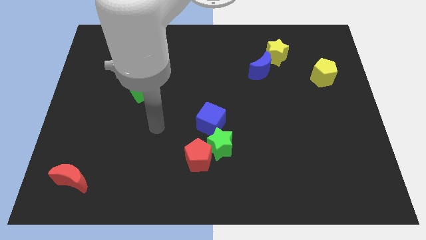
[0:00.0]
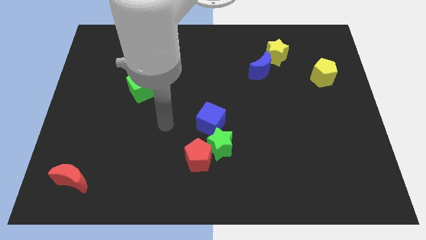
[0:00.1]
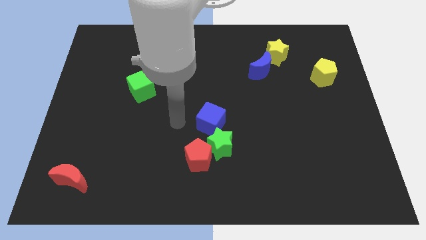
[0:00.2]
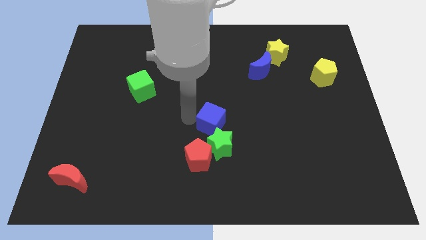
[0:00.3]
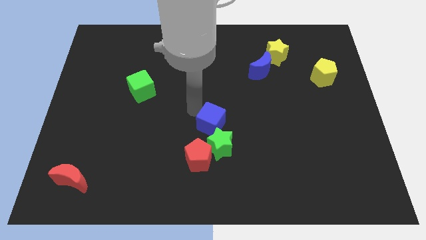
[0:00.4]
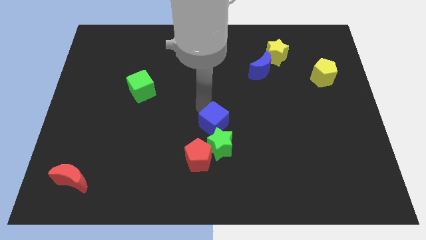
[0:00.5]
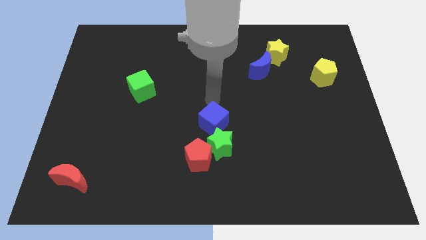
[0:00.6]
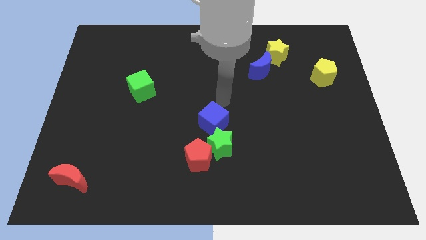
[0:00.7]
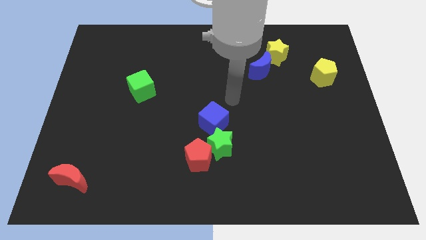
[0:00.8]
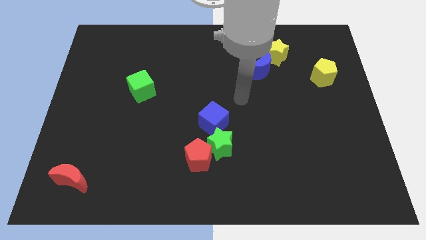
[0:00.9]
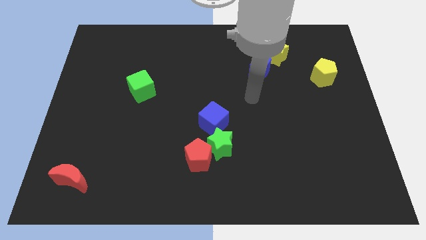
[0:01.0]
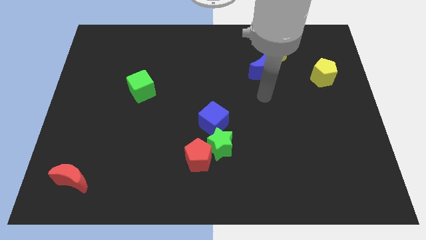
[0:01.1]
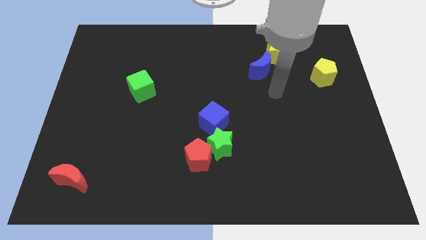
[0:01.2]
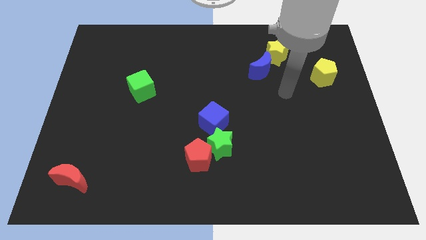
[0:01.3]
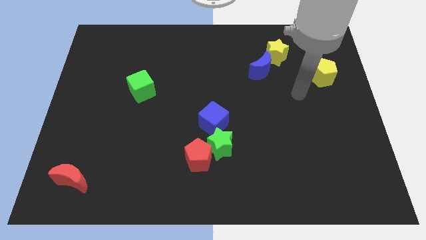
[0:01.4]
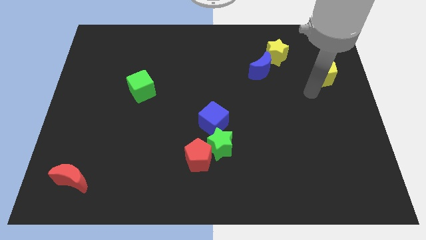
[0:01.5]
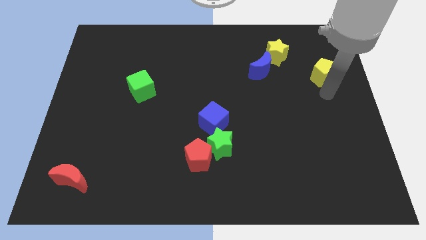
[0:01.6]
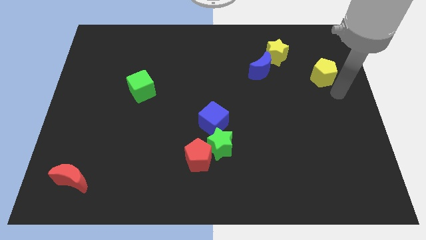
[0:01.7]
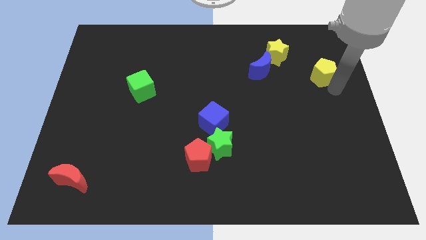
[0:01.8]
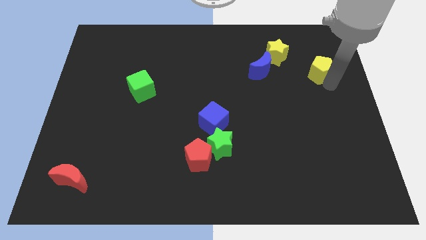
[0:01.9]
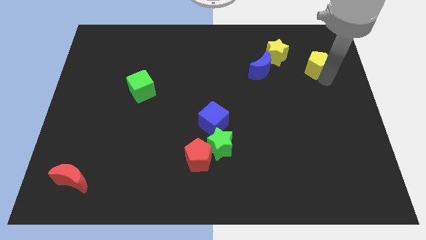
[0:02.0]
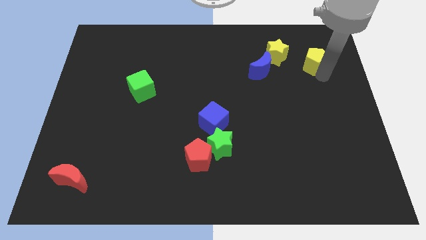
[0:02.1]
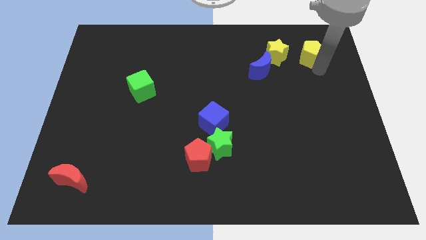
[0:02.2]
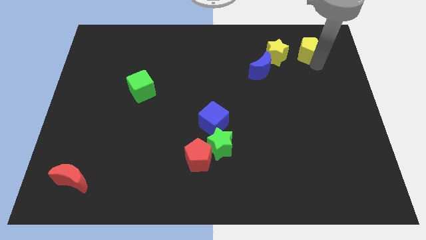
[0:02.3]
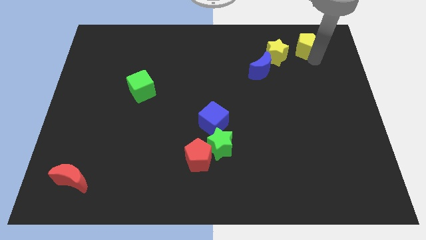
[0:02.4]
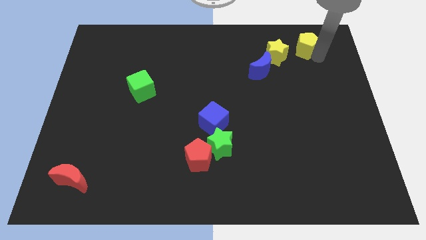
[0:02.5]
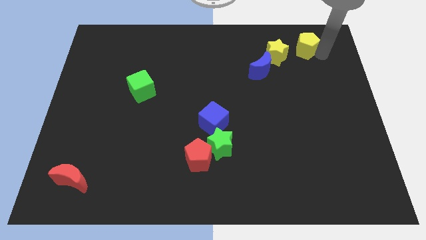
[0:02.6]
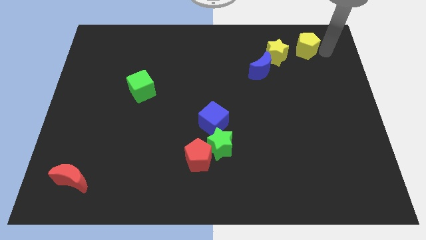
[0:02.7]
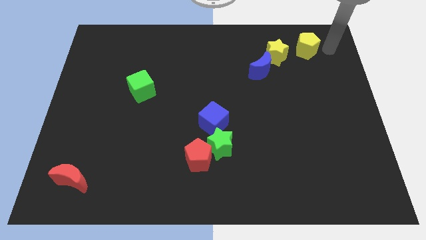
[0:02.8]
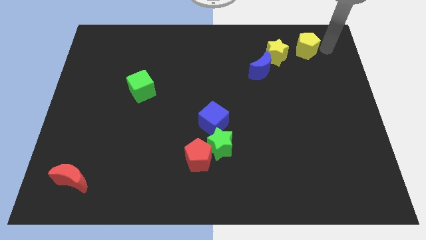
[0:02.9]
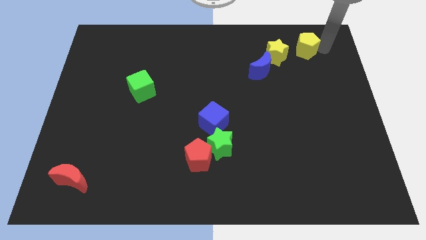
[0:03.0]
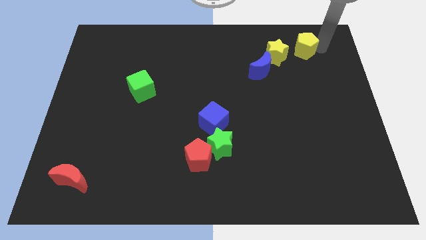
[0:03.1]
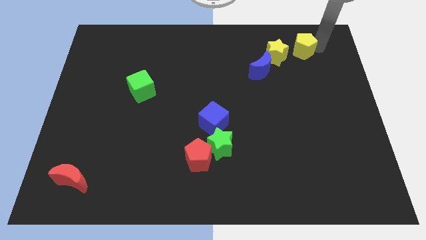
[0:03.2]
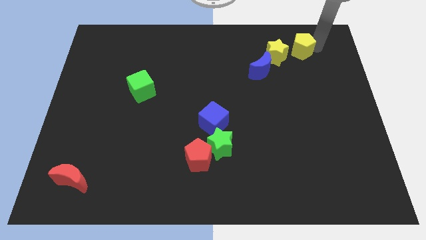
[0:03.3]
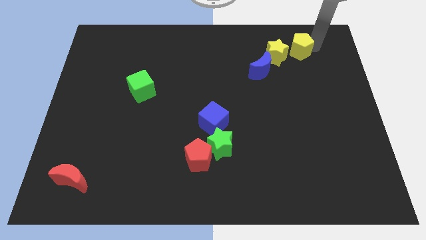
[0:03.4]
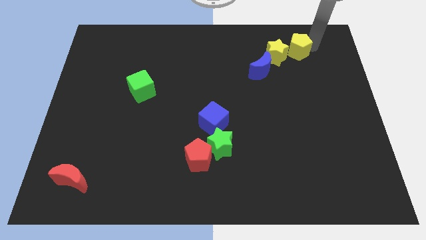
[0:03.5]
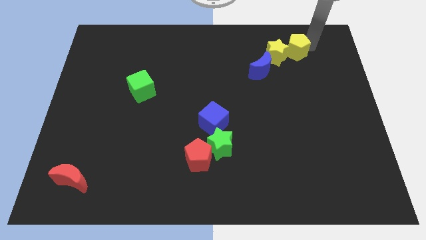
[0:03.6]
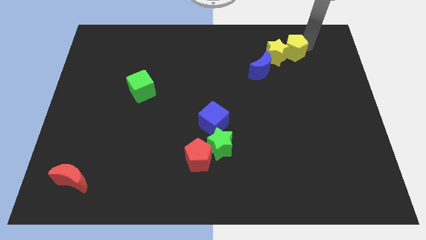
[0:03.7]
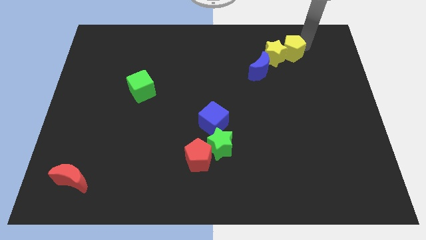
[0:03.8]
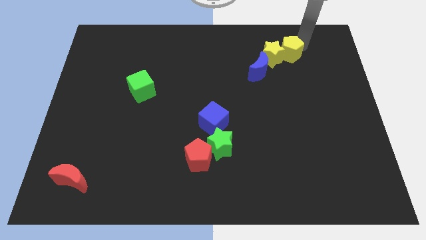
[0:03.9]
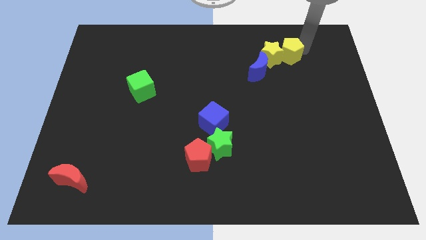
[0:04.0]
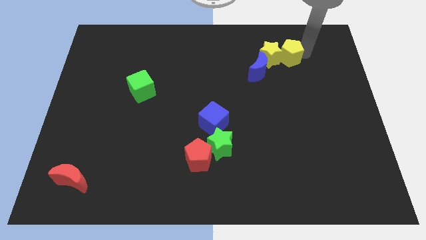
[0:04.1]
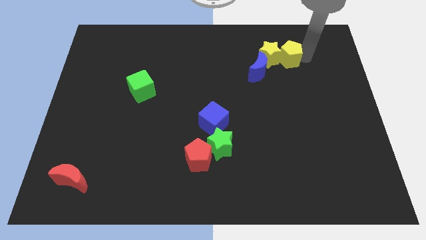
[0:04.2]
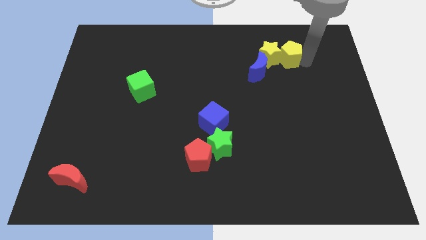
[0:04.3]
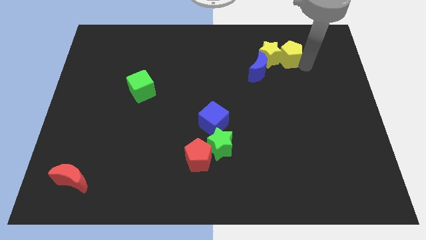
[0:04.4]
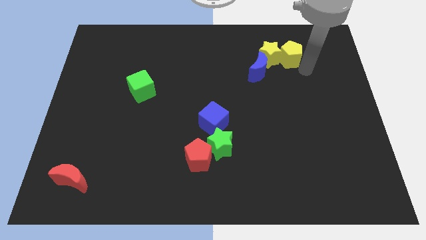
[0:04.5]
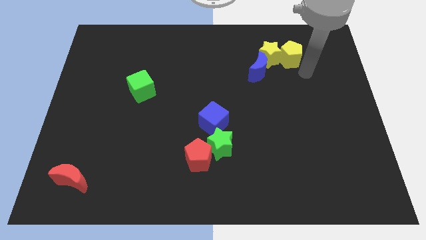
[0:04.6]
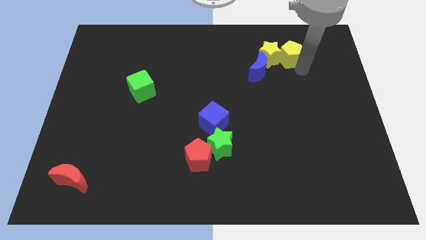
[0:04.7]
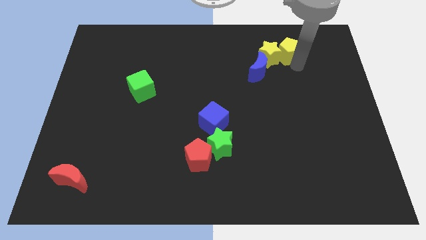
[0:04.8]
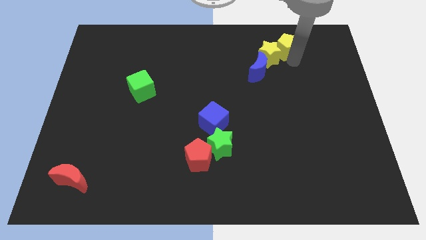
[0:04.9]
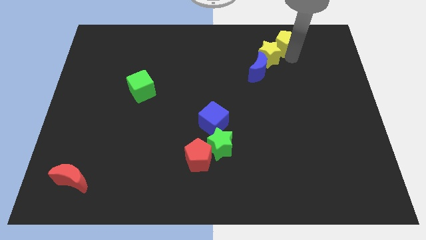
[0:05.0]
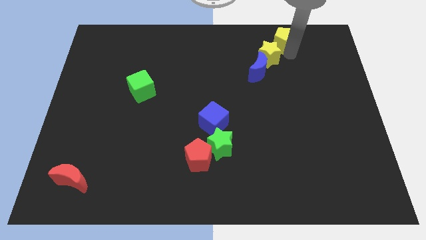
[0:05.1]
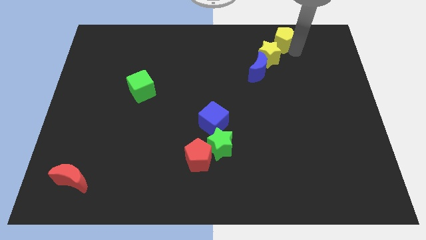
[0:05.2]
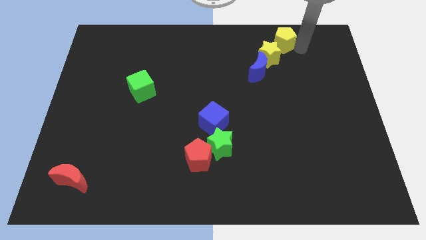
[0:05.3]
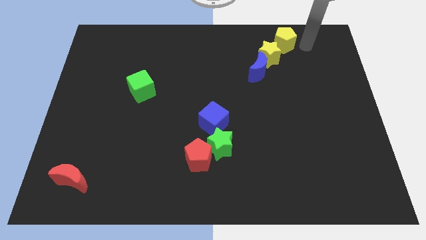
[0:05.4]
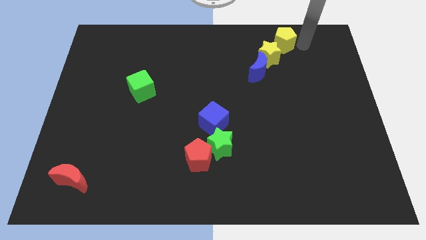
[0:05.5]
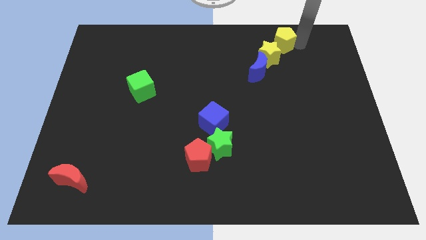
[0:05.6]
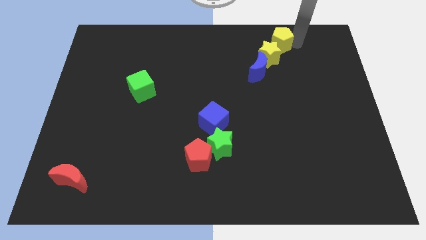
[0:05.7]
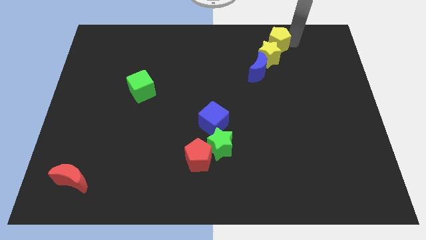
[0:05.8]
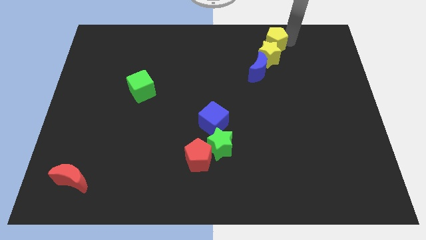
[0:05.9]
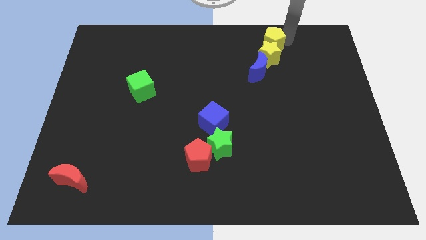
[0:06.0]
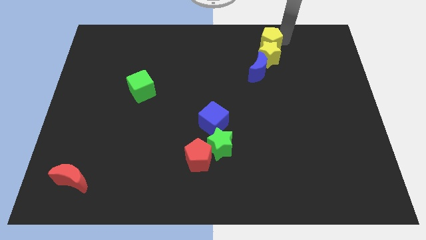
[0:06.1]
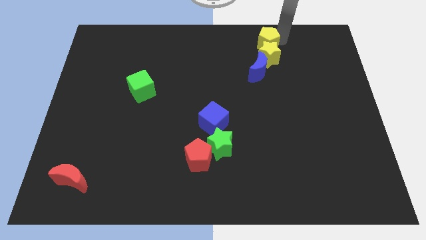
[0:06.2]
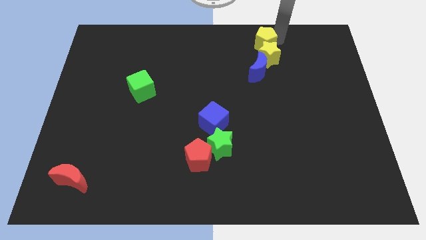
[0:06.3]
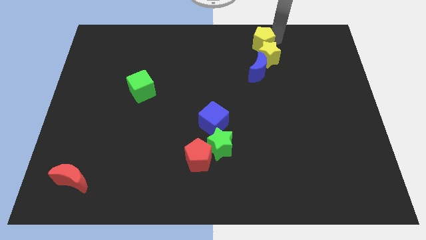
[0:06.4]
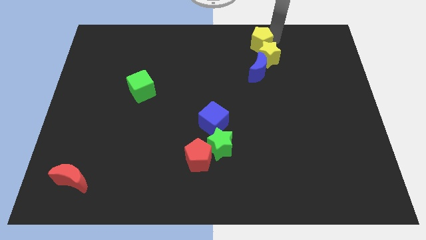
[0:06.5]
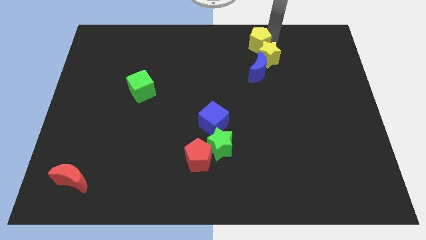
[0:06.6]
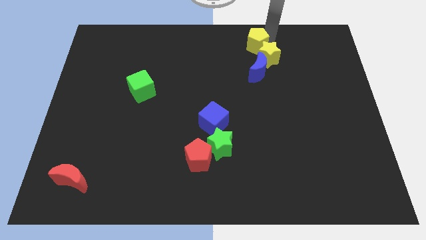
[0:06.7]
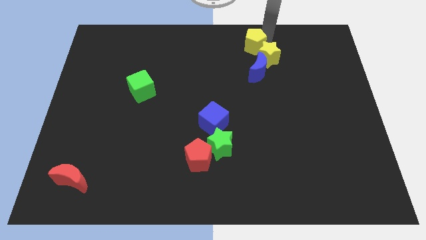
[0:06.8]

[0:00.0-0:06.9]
move the yellow pentagon to the towards your base

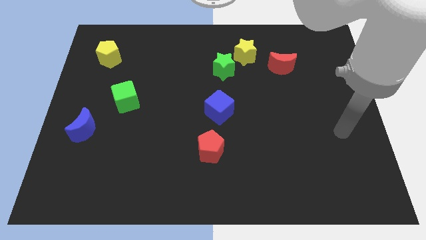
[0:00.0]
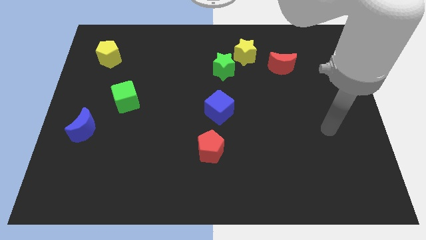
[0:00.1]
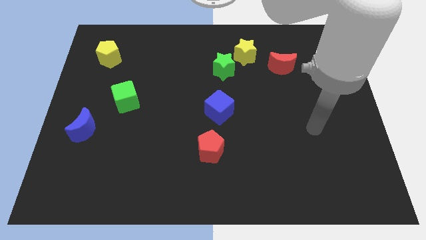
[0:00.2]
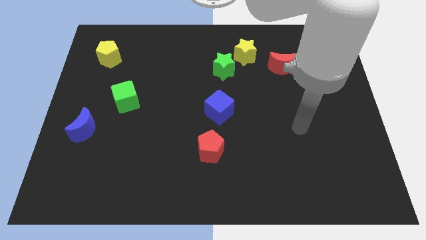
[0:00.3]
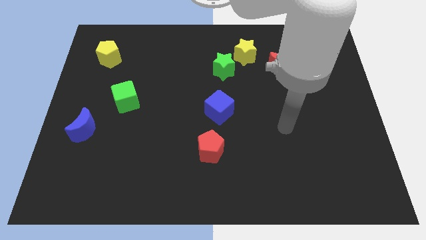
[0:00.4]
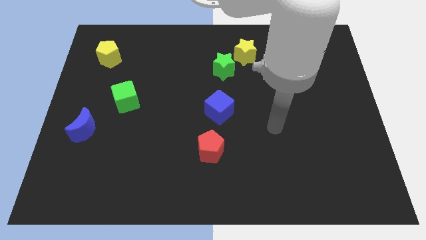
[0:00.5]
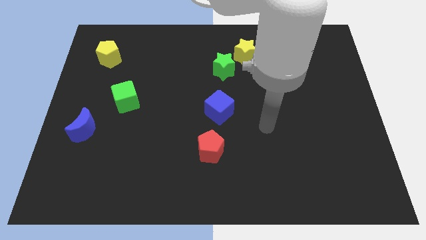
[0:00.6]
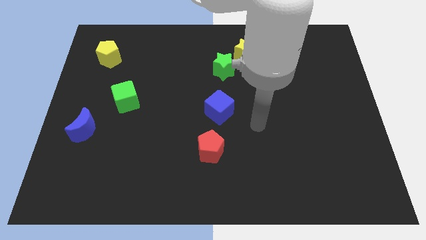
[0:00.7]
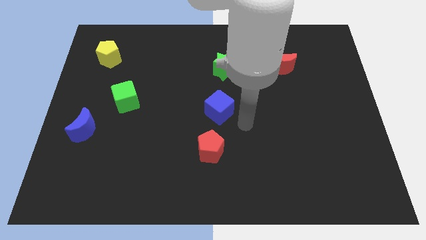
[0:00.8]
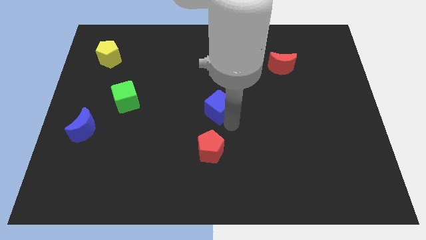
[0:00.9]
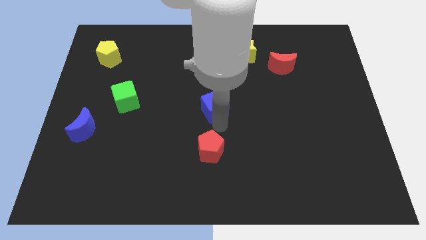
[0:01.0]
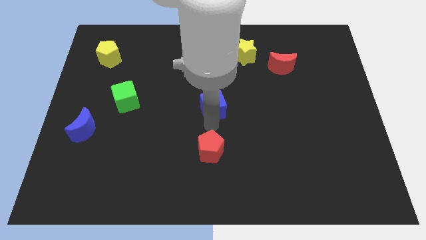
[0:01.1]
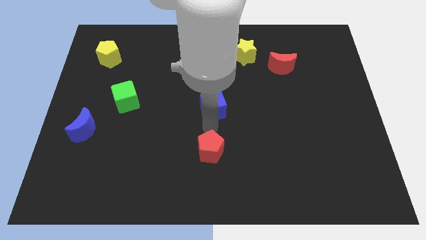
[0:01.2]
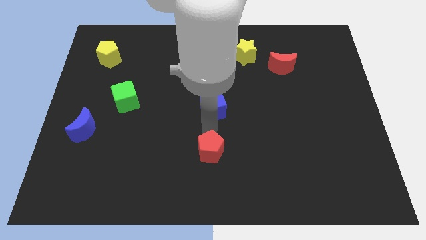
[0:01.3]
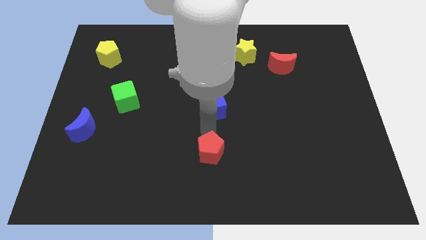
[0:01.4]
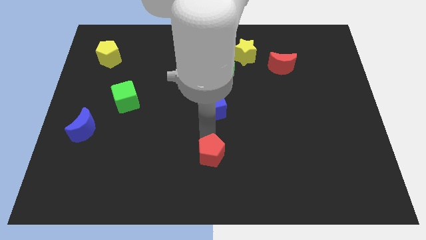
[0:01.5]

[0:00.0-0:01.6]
put the red pentagon to the bottom side
